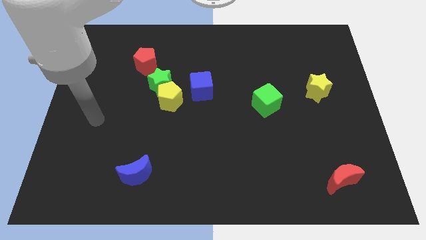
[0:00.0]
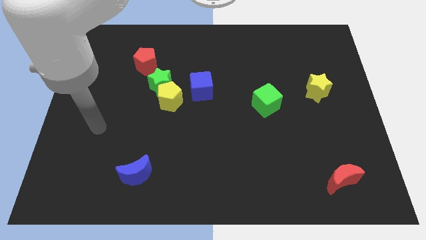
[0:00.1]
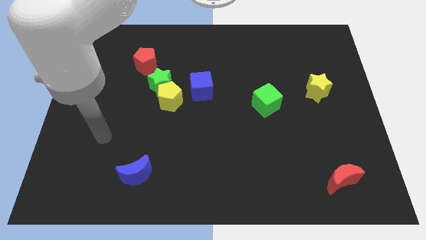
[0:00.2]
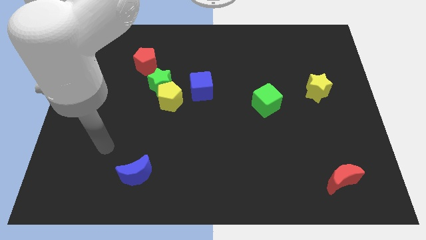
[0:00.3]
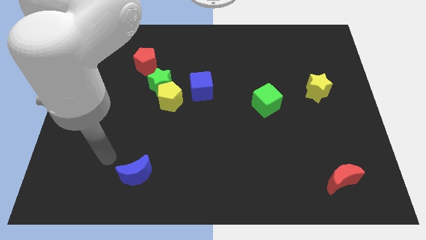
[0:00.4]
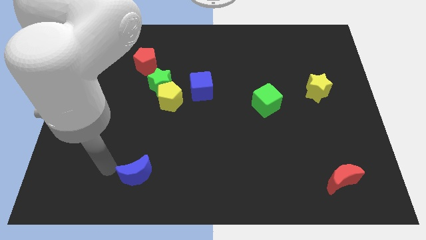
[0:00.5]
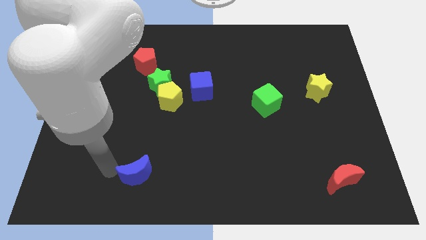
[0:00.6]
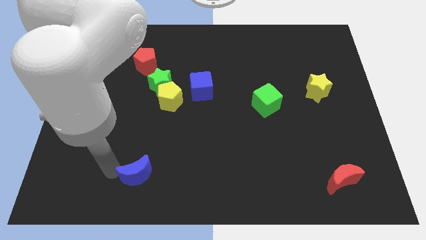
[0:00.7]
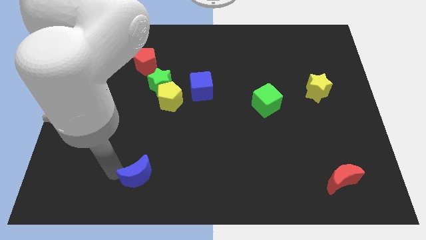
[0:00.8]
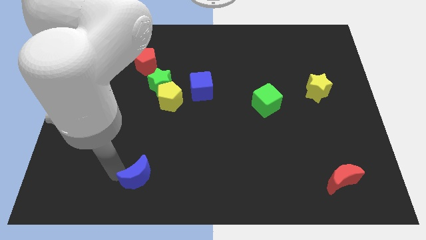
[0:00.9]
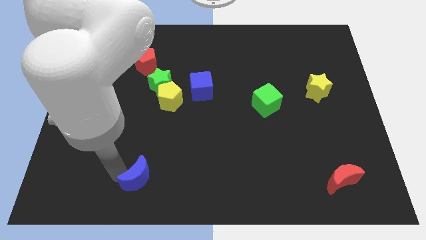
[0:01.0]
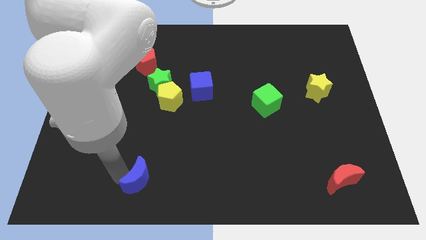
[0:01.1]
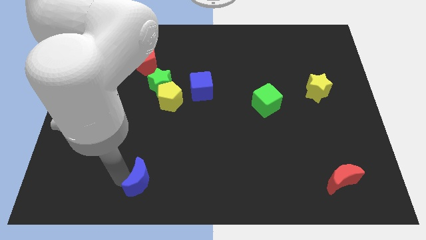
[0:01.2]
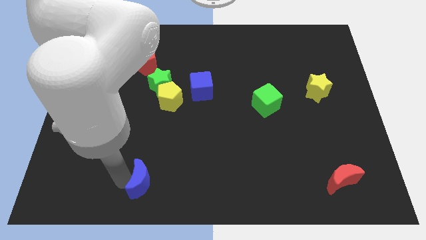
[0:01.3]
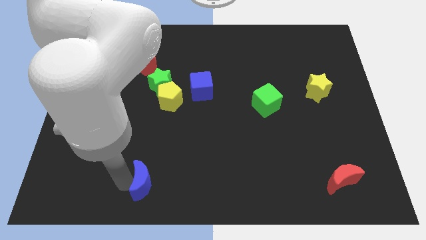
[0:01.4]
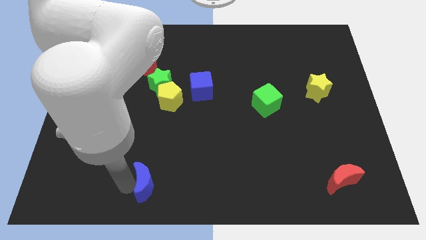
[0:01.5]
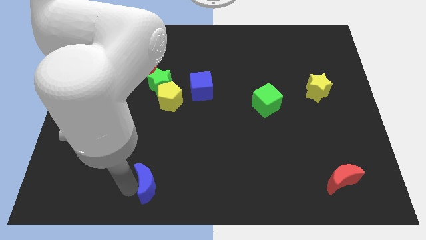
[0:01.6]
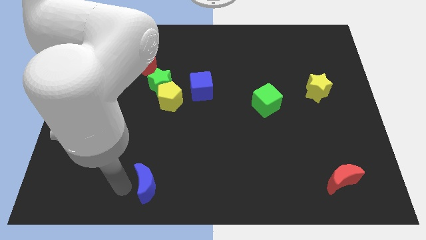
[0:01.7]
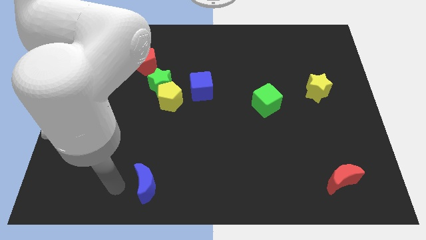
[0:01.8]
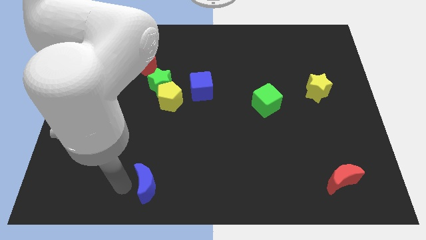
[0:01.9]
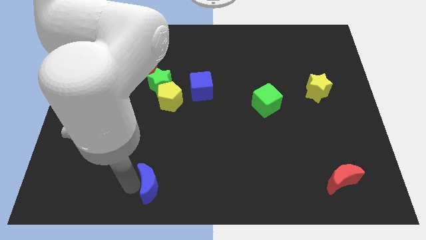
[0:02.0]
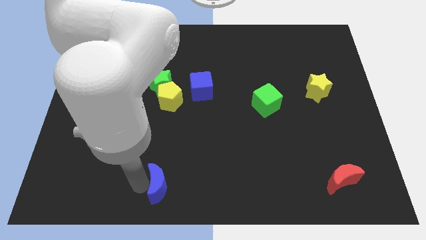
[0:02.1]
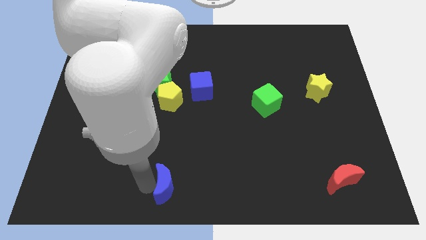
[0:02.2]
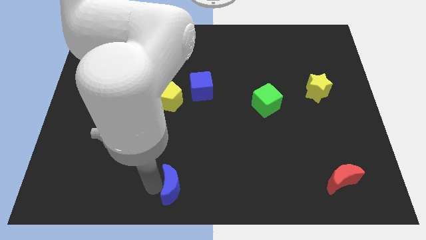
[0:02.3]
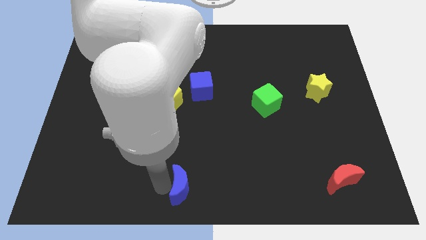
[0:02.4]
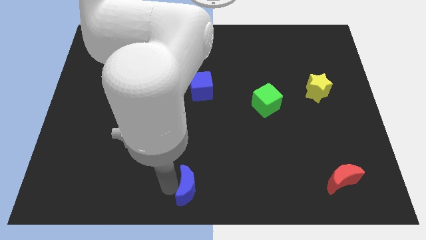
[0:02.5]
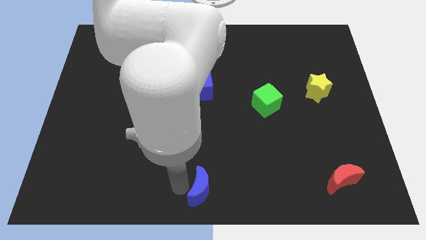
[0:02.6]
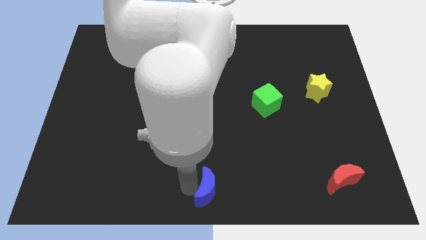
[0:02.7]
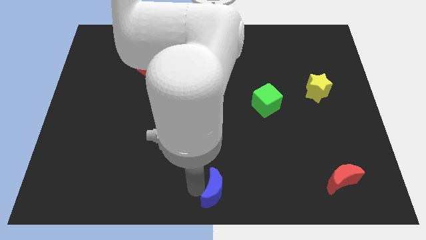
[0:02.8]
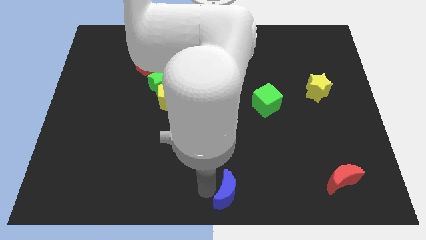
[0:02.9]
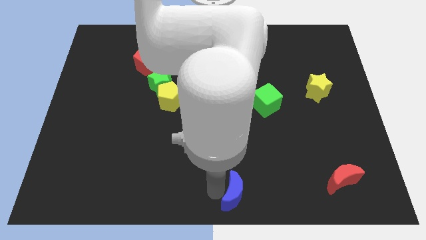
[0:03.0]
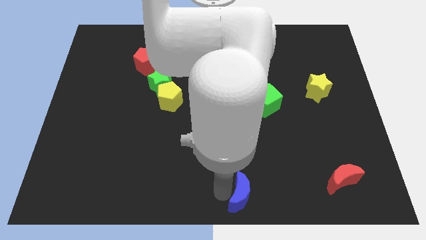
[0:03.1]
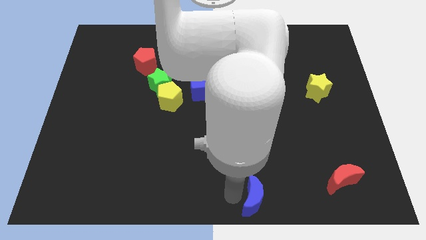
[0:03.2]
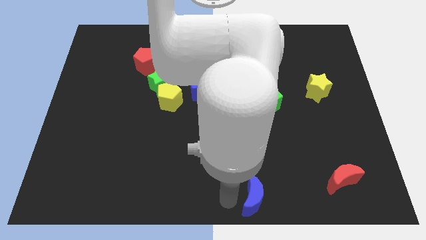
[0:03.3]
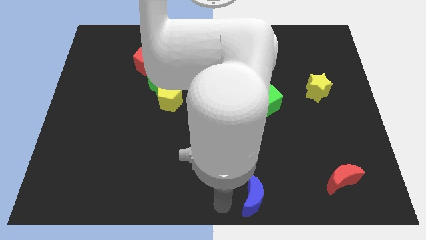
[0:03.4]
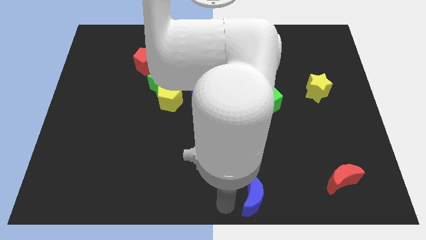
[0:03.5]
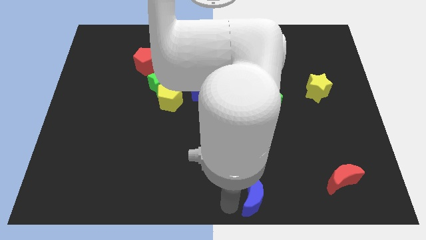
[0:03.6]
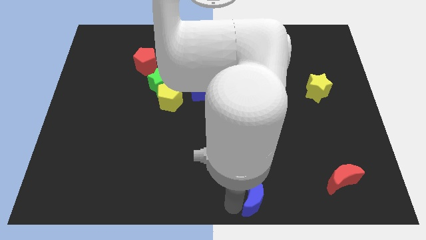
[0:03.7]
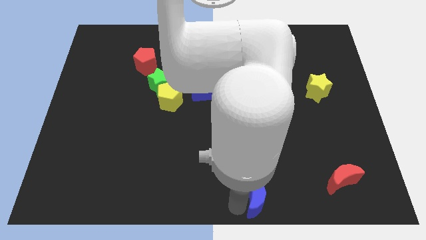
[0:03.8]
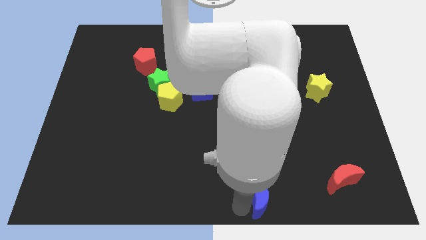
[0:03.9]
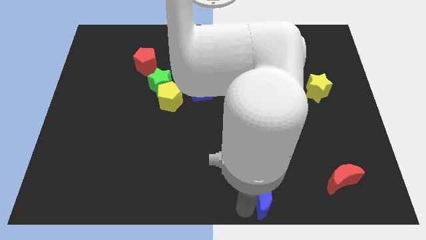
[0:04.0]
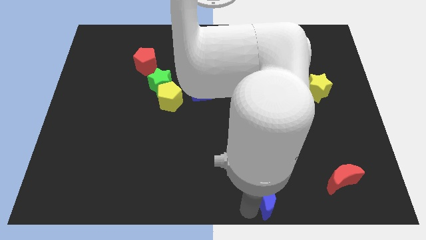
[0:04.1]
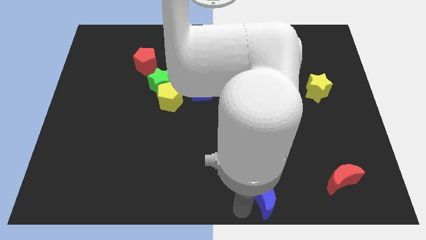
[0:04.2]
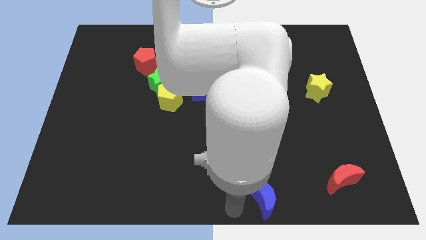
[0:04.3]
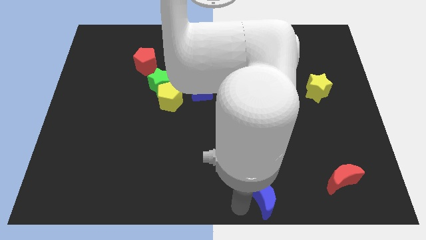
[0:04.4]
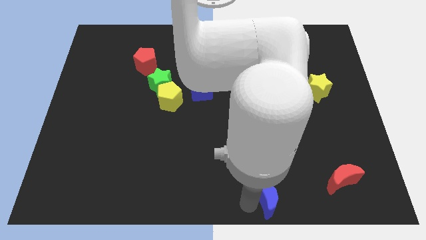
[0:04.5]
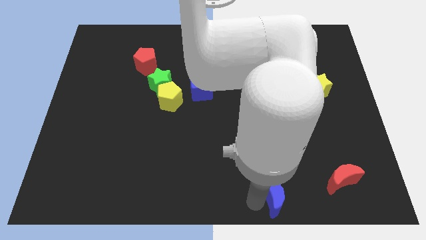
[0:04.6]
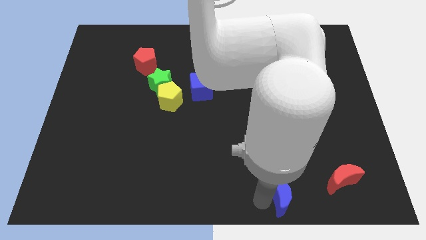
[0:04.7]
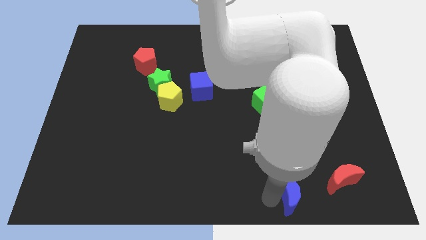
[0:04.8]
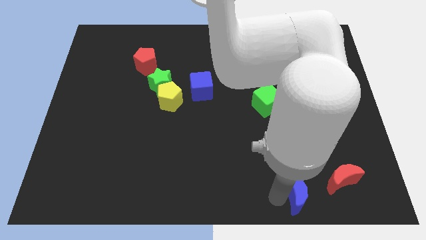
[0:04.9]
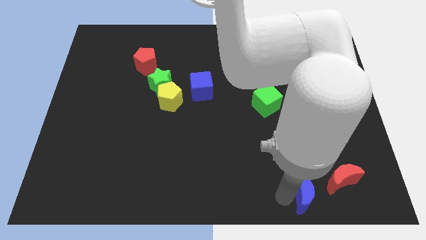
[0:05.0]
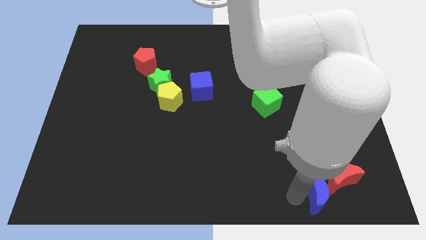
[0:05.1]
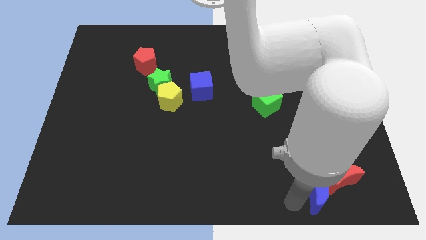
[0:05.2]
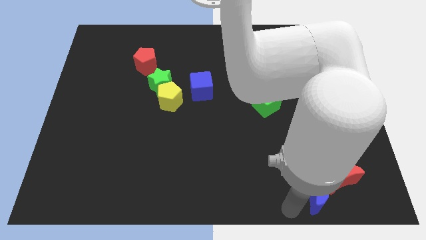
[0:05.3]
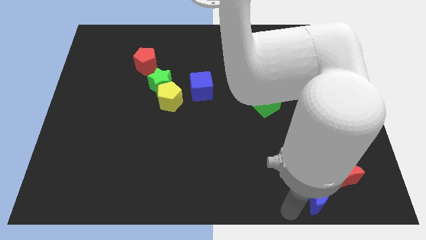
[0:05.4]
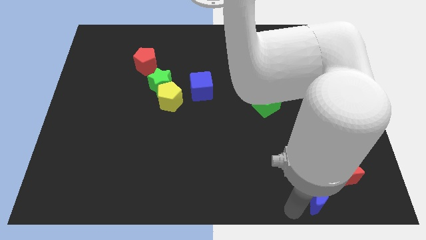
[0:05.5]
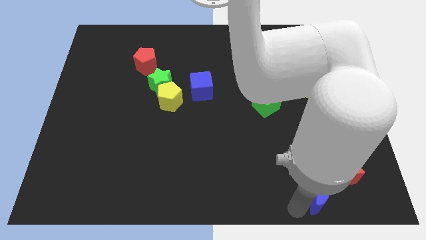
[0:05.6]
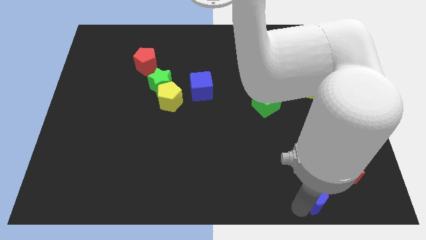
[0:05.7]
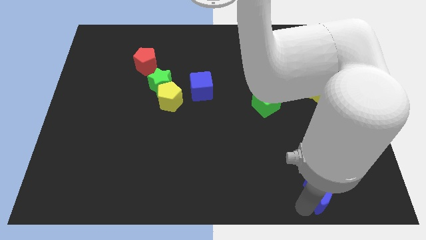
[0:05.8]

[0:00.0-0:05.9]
put the blue moon close to the red moon

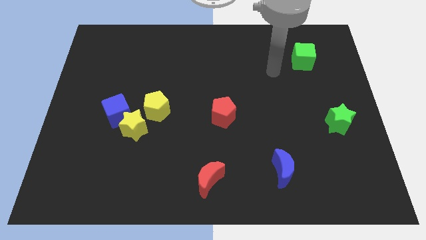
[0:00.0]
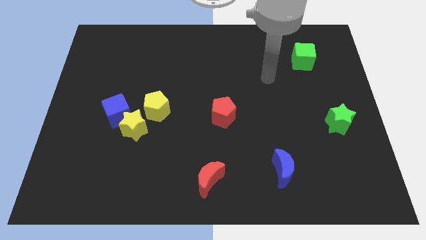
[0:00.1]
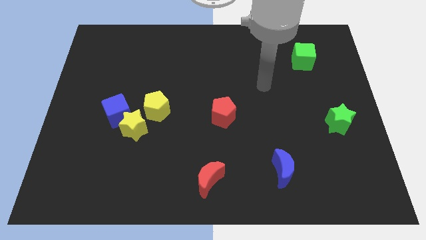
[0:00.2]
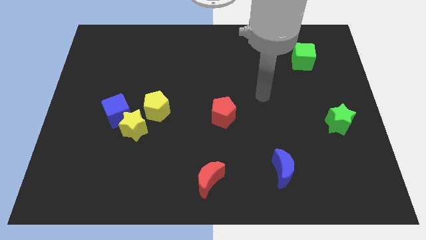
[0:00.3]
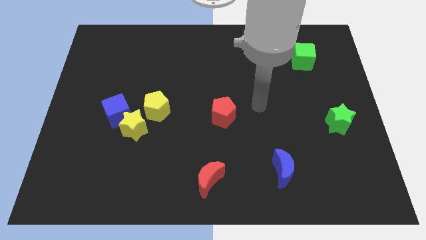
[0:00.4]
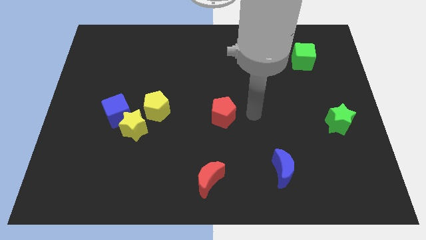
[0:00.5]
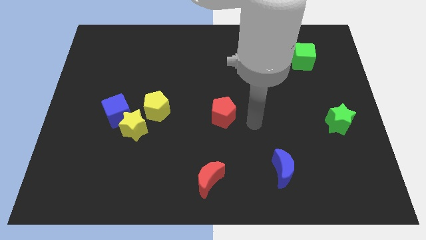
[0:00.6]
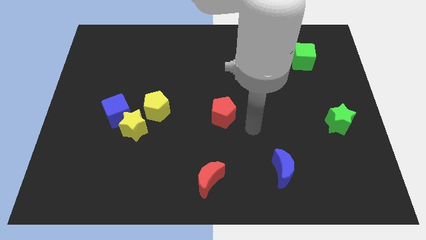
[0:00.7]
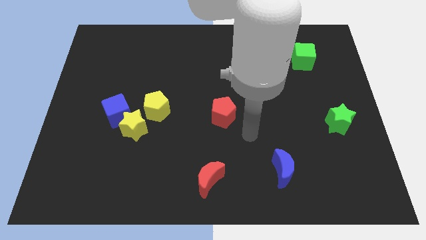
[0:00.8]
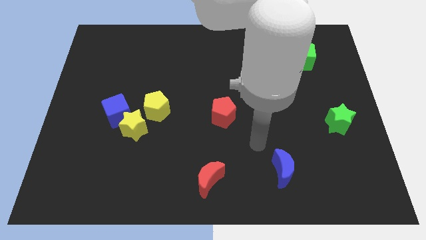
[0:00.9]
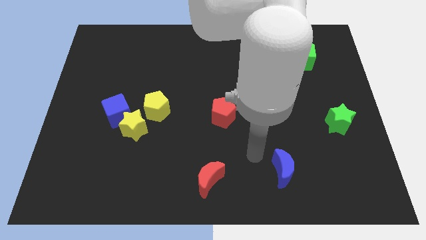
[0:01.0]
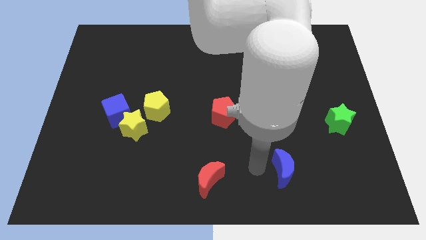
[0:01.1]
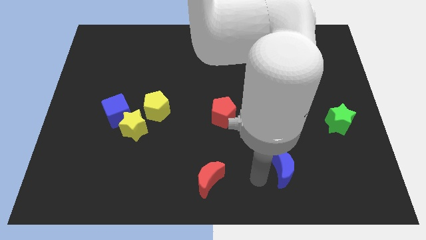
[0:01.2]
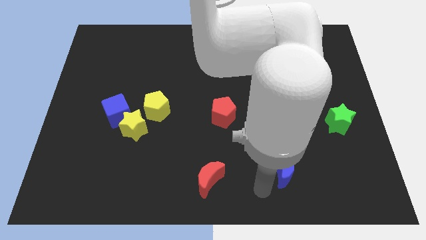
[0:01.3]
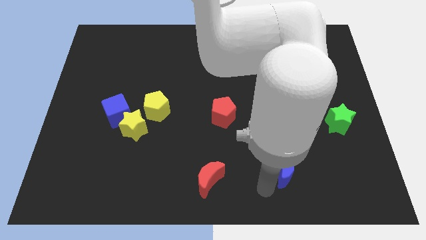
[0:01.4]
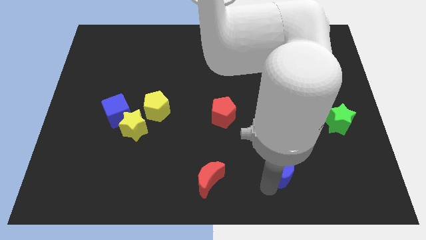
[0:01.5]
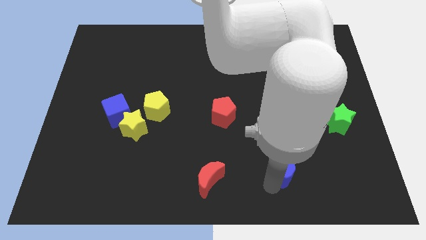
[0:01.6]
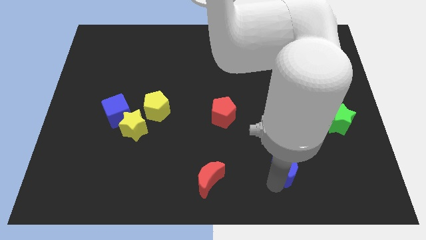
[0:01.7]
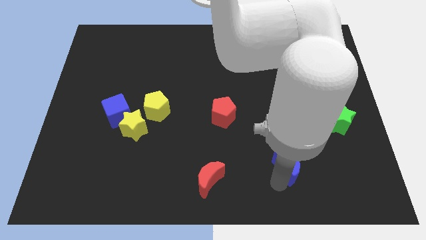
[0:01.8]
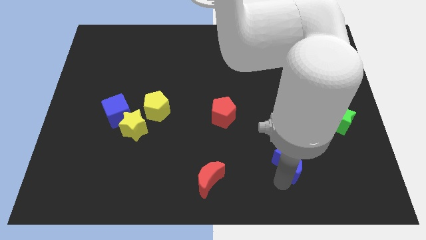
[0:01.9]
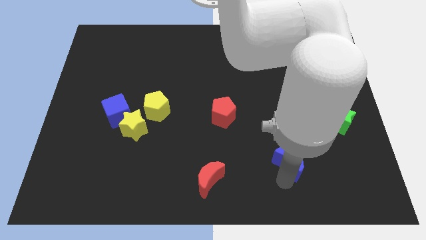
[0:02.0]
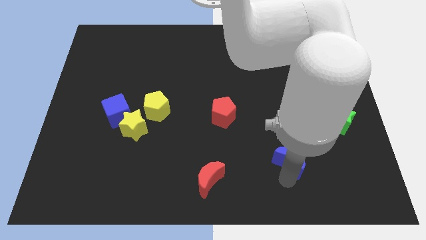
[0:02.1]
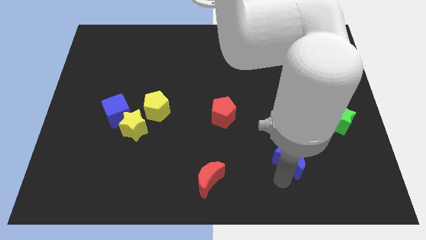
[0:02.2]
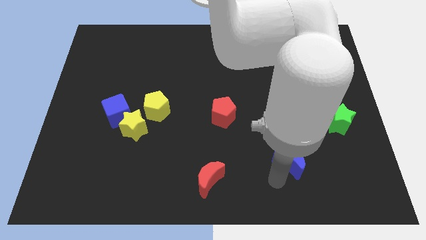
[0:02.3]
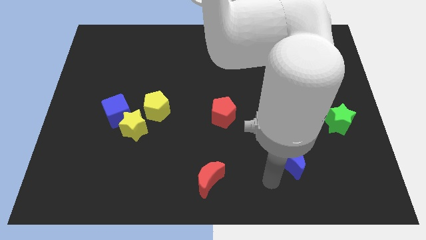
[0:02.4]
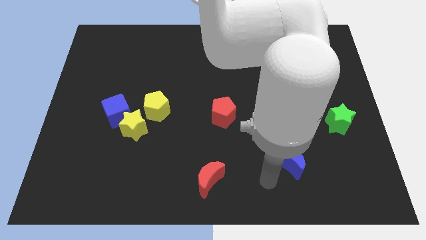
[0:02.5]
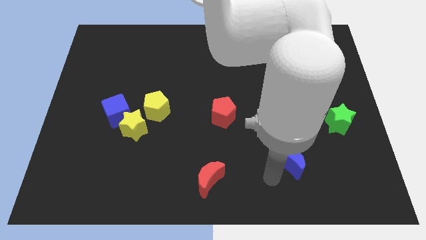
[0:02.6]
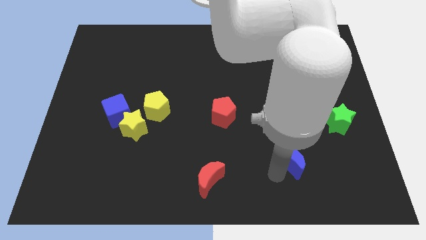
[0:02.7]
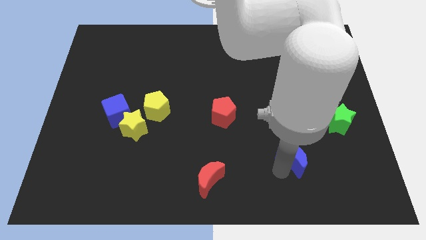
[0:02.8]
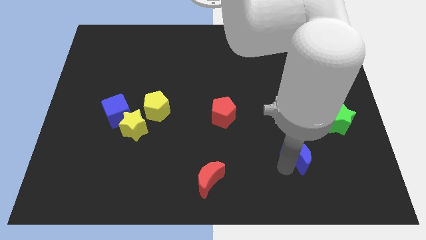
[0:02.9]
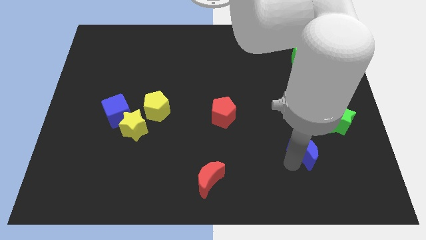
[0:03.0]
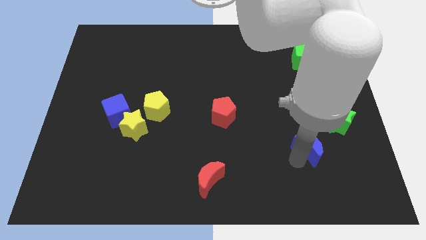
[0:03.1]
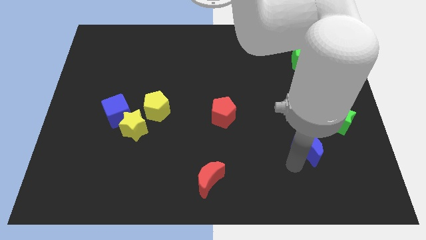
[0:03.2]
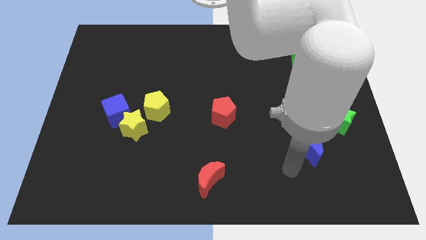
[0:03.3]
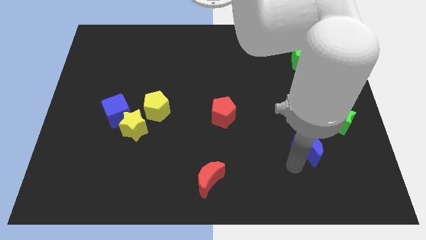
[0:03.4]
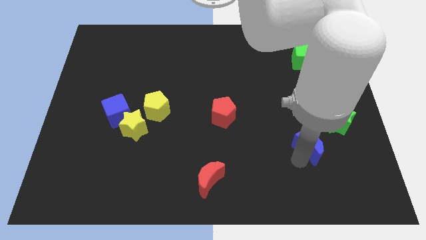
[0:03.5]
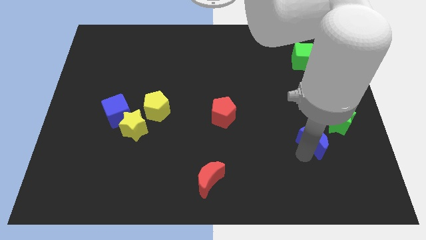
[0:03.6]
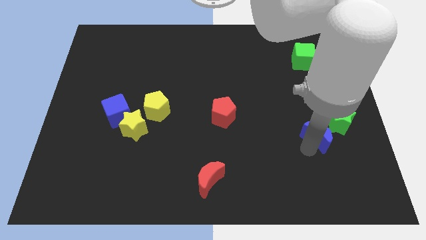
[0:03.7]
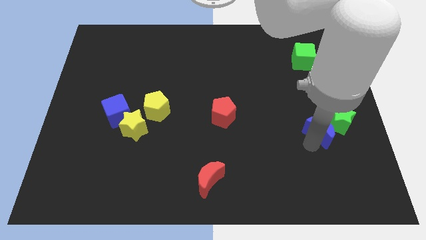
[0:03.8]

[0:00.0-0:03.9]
move the blue moon close to the green star
